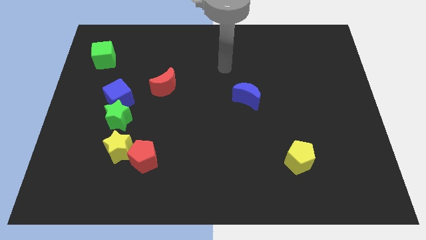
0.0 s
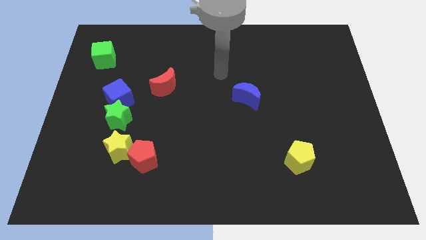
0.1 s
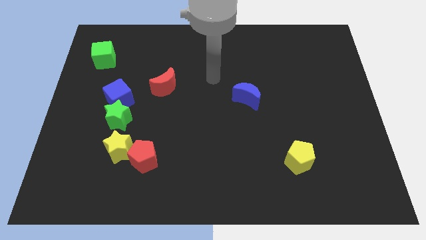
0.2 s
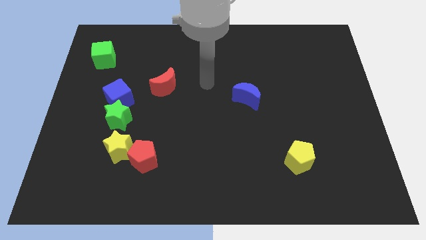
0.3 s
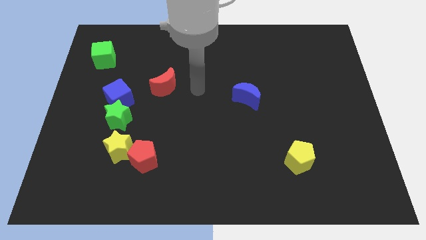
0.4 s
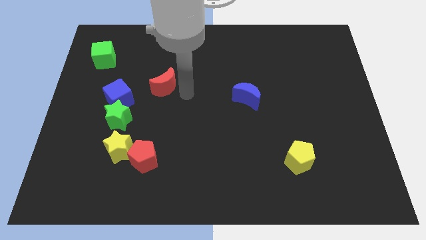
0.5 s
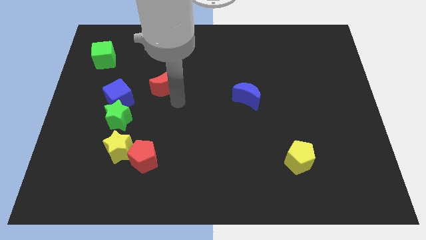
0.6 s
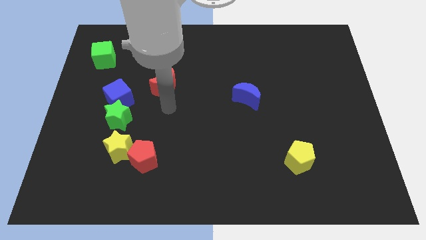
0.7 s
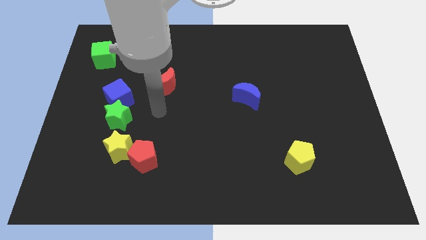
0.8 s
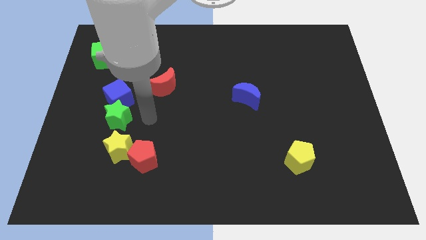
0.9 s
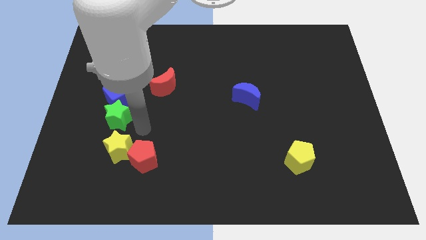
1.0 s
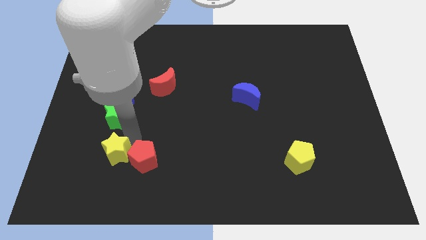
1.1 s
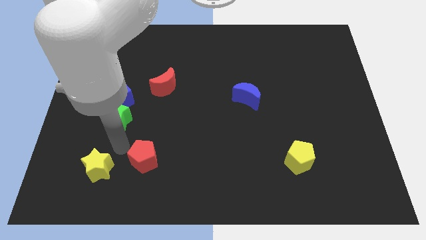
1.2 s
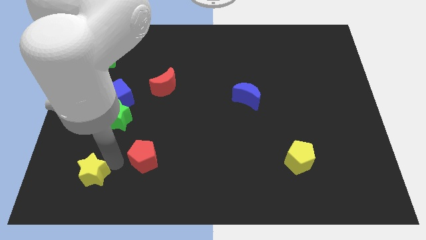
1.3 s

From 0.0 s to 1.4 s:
move the red pentagon away from the yellow star

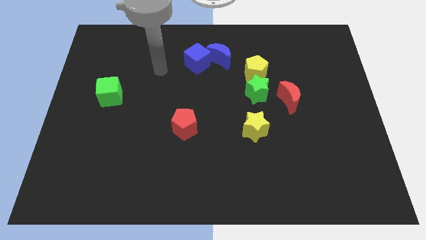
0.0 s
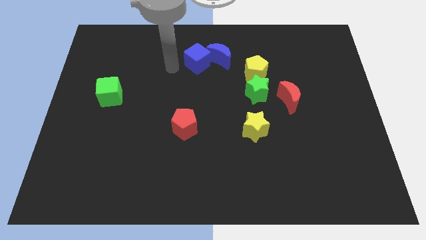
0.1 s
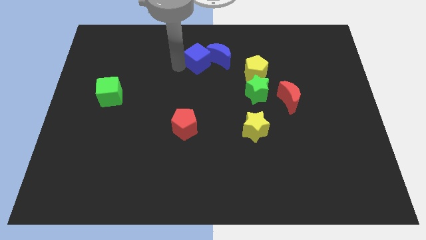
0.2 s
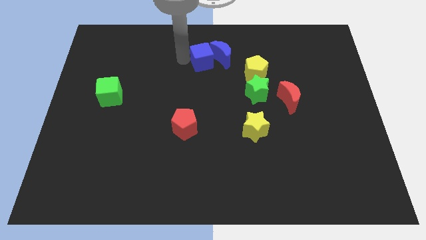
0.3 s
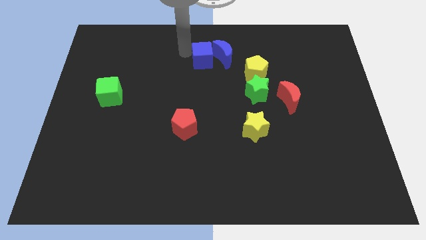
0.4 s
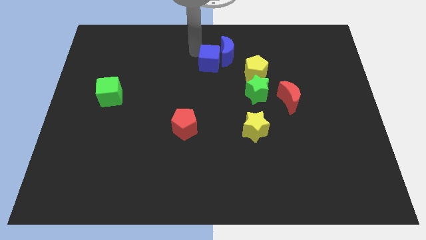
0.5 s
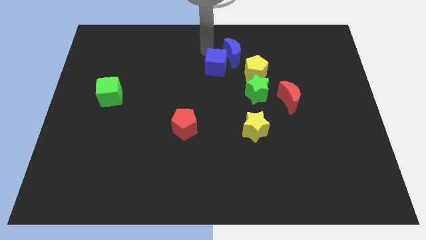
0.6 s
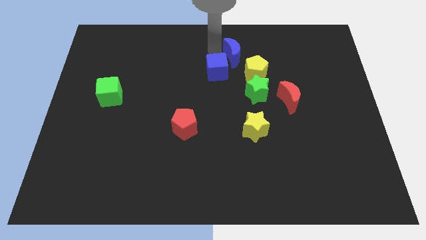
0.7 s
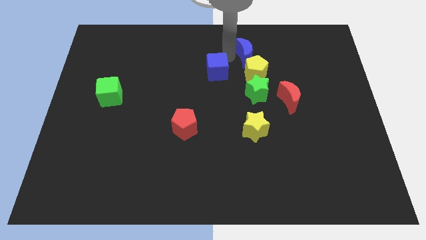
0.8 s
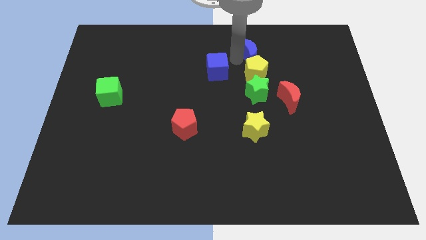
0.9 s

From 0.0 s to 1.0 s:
move the blue cube away from the blue moon

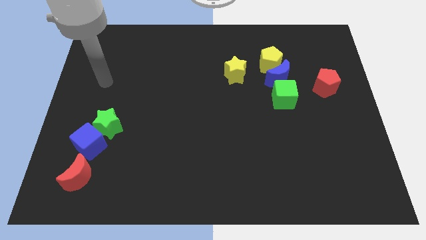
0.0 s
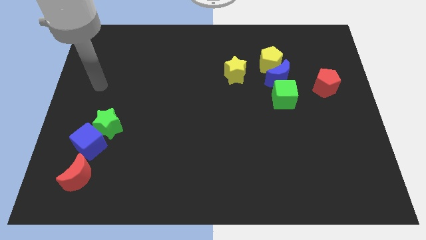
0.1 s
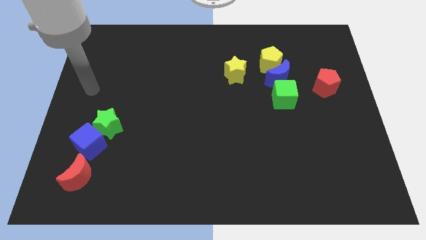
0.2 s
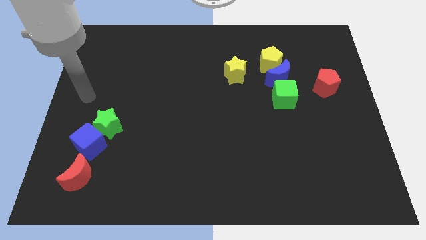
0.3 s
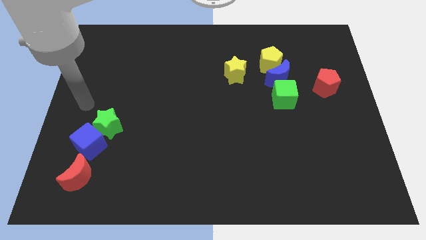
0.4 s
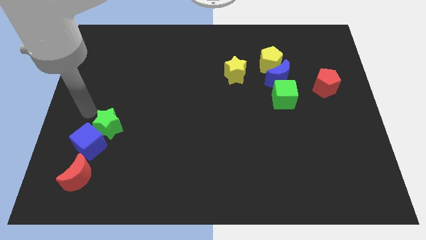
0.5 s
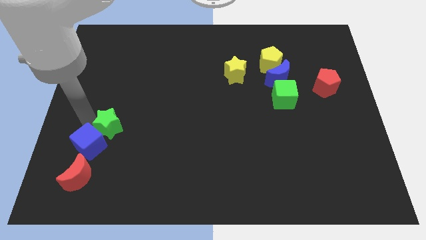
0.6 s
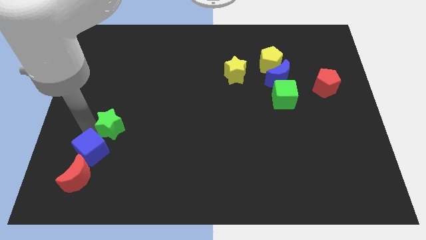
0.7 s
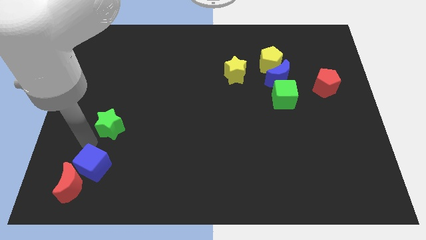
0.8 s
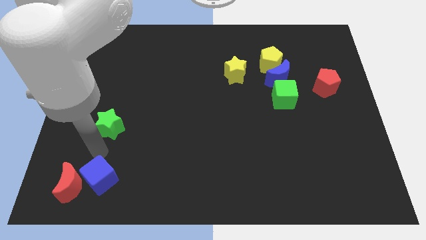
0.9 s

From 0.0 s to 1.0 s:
pull the green star apart from the blue cube

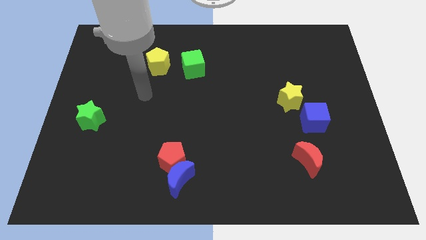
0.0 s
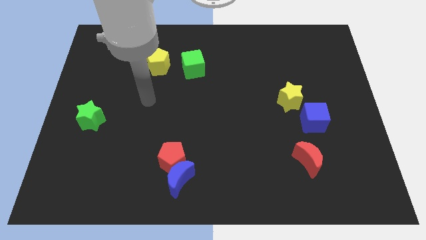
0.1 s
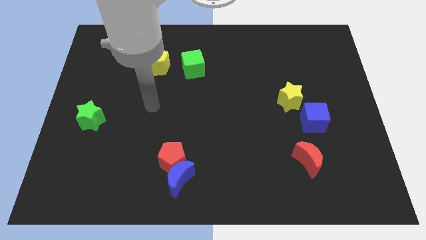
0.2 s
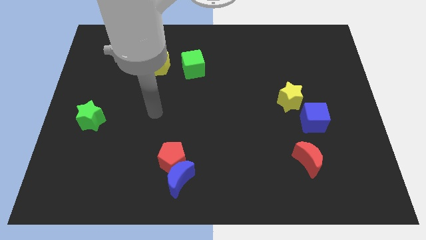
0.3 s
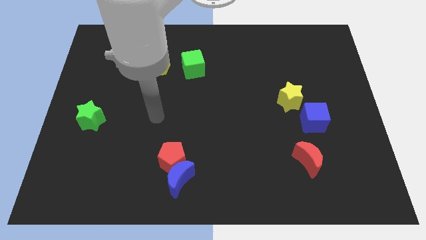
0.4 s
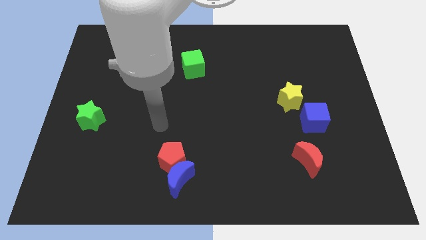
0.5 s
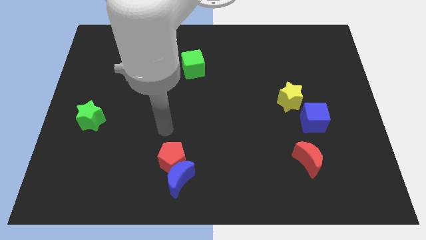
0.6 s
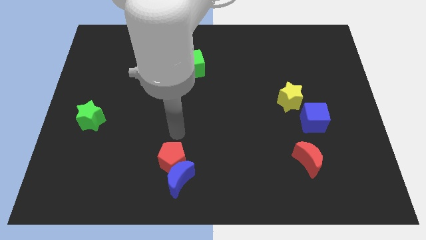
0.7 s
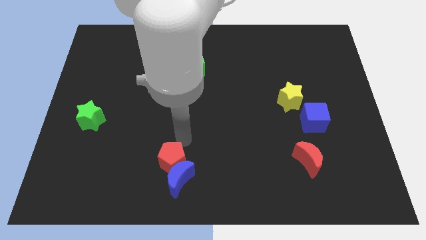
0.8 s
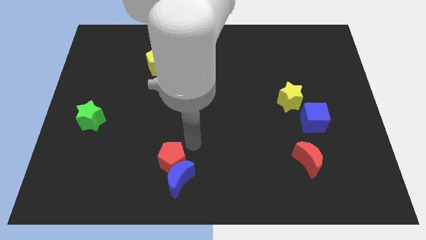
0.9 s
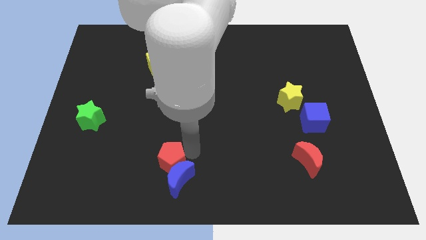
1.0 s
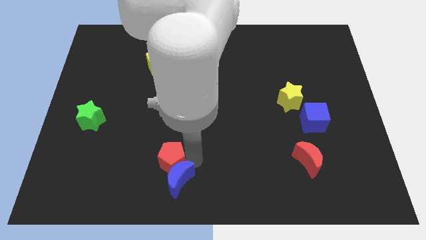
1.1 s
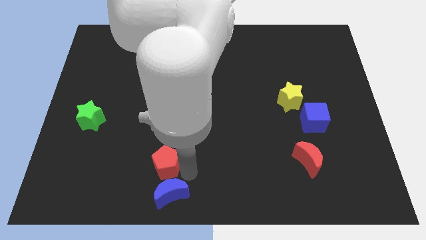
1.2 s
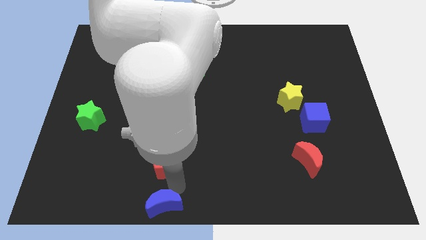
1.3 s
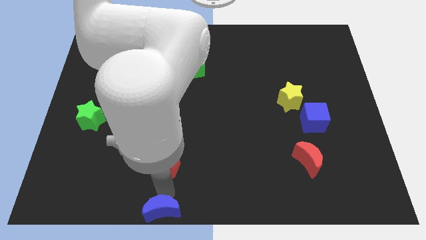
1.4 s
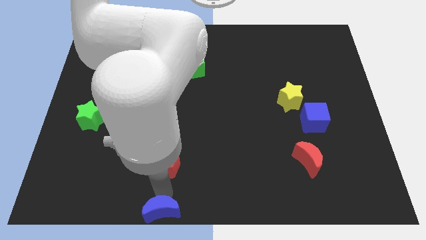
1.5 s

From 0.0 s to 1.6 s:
move the red pentagon away from the blue moon

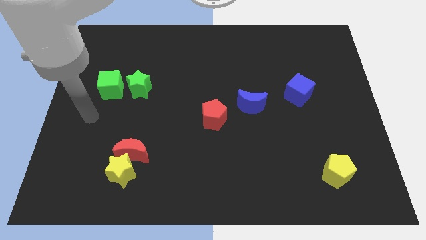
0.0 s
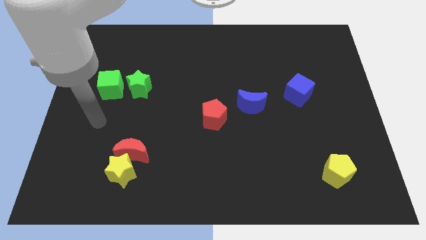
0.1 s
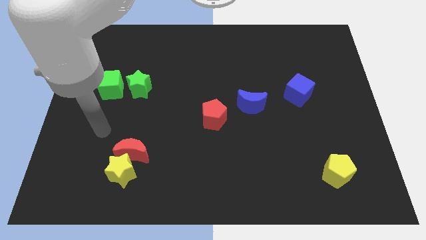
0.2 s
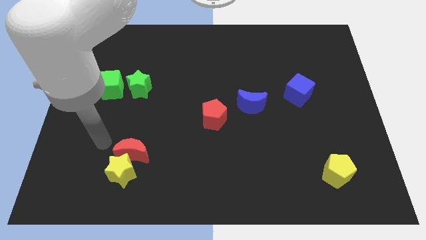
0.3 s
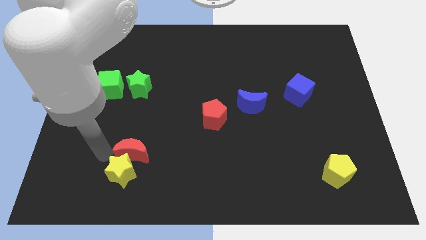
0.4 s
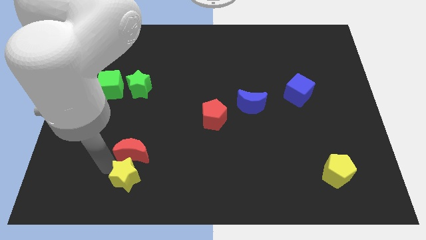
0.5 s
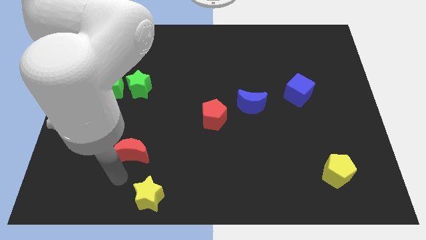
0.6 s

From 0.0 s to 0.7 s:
pull the red moon apart from the yellow star

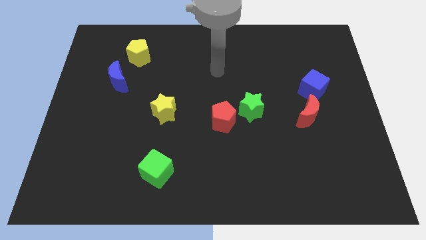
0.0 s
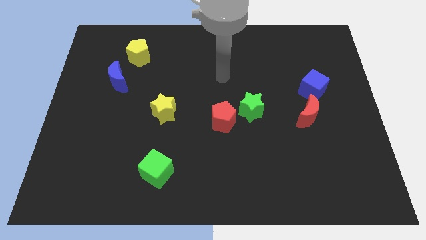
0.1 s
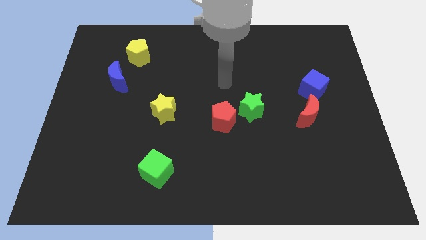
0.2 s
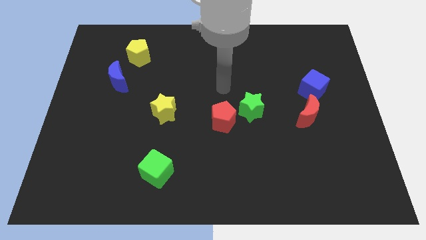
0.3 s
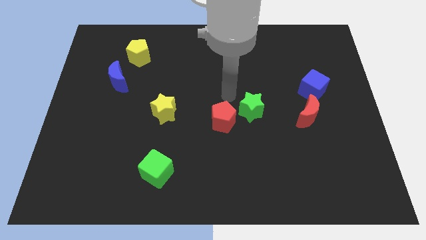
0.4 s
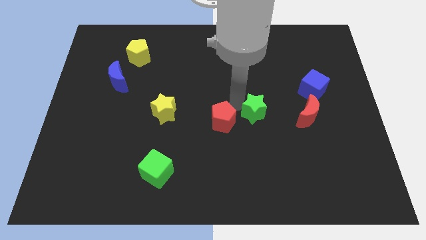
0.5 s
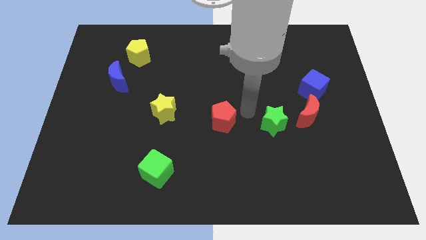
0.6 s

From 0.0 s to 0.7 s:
pull the red pentagon apart from the green star

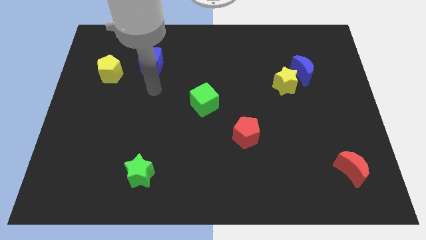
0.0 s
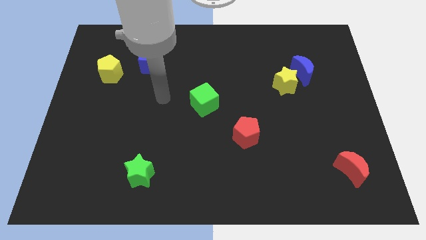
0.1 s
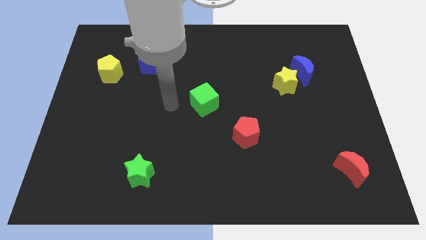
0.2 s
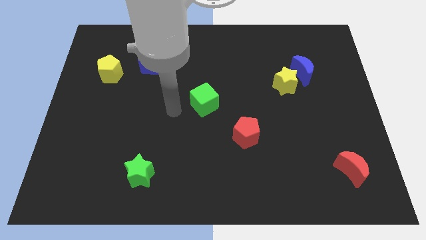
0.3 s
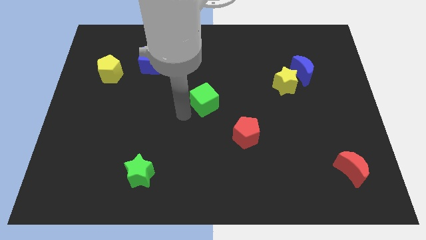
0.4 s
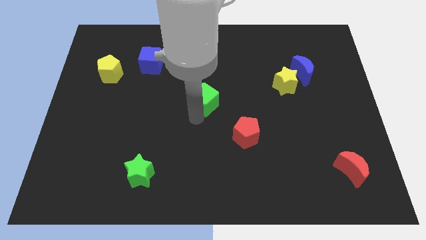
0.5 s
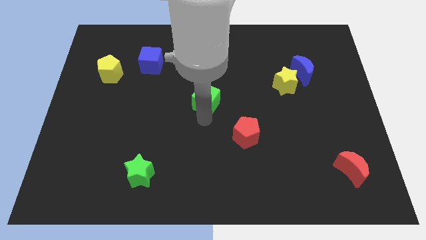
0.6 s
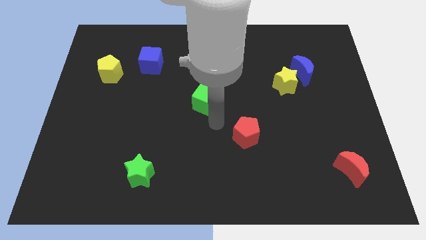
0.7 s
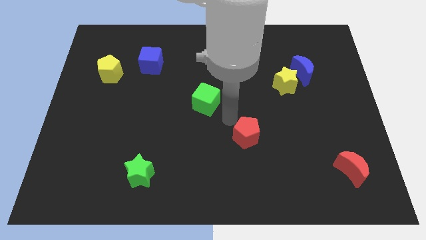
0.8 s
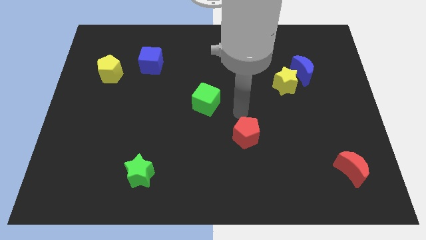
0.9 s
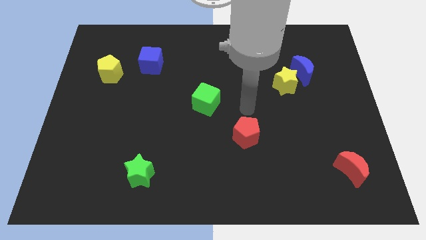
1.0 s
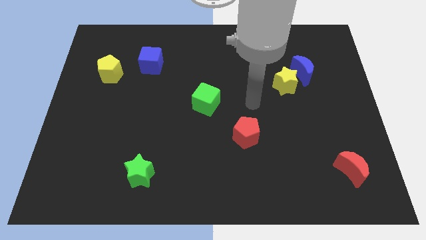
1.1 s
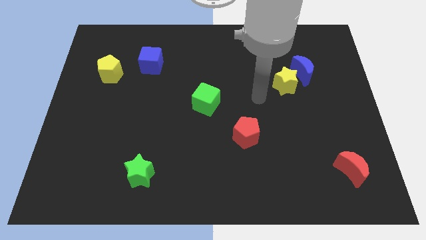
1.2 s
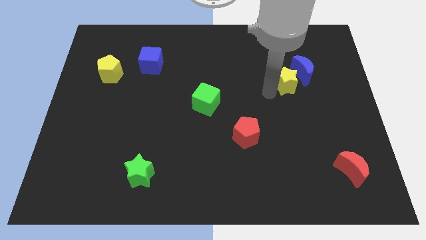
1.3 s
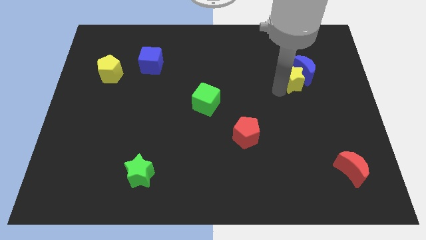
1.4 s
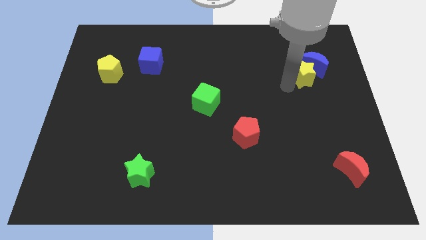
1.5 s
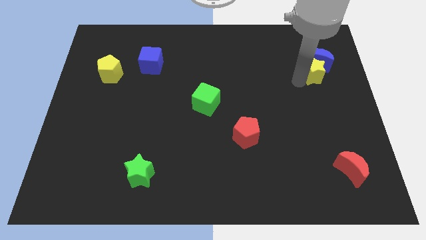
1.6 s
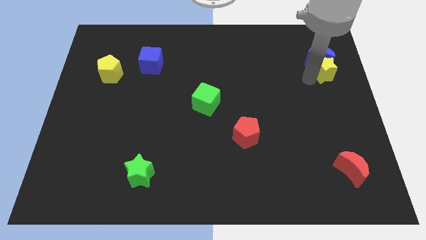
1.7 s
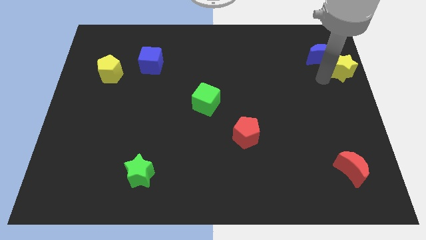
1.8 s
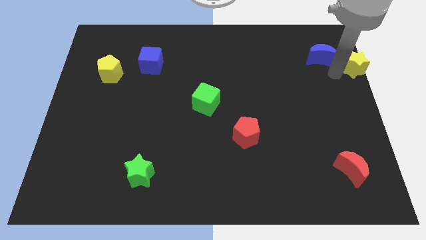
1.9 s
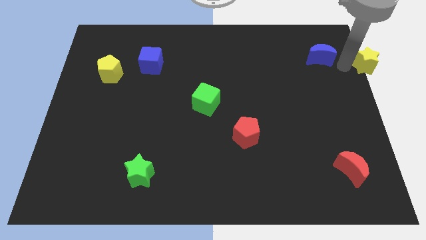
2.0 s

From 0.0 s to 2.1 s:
pull the blue moon apart from the yellow star

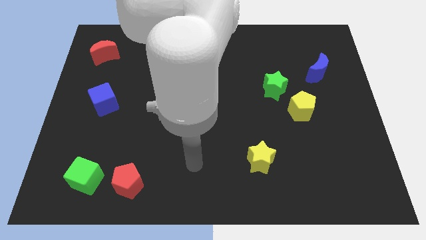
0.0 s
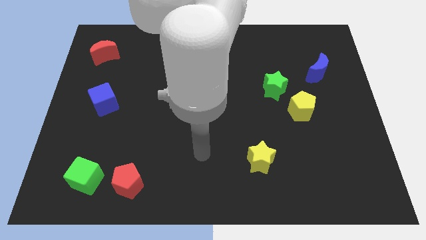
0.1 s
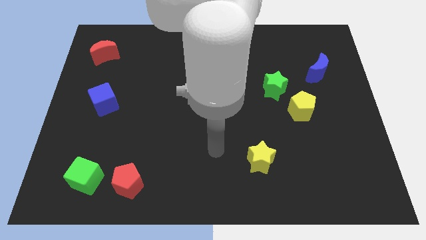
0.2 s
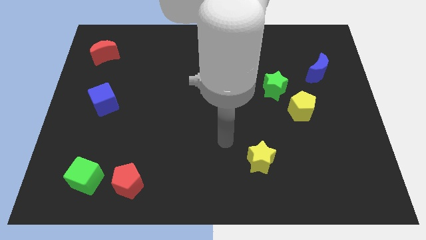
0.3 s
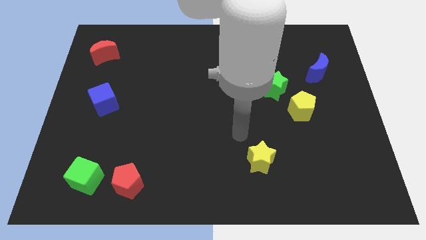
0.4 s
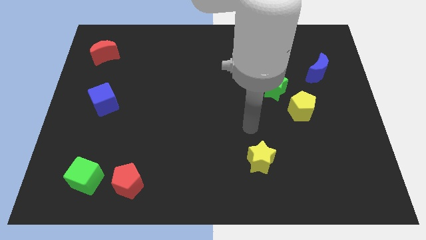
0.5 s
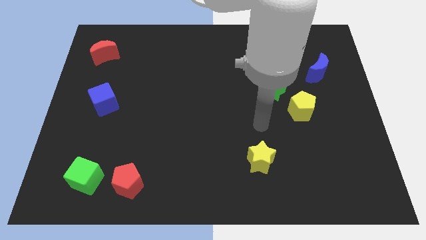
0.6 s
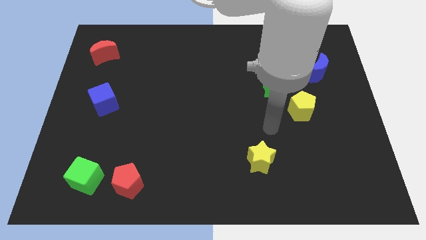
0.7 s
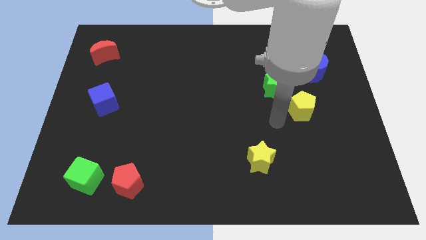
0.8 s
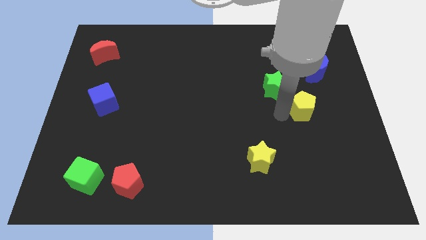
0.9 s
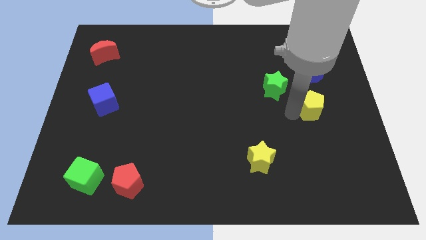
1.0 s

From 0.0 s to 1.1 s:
separate the green star from the yellow pentagon
